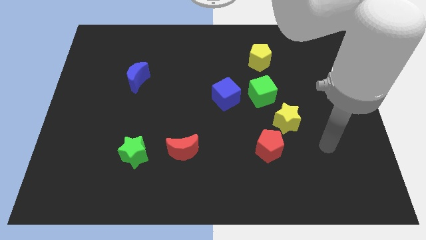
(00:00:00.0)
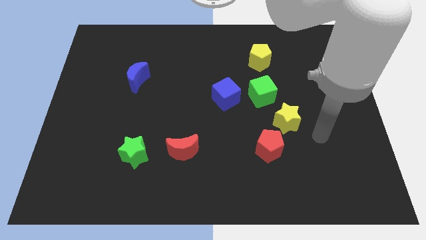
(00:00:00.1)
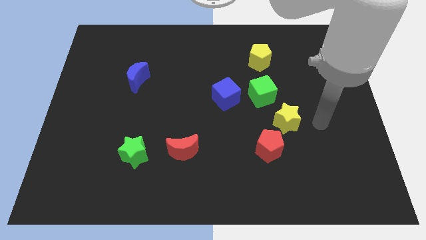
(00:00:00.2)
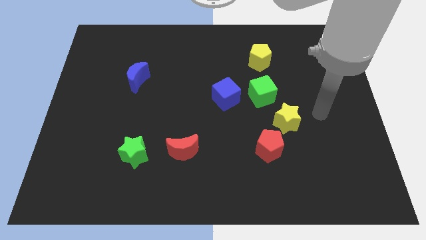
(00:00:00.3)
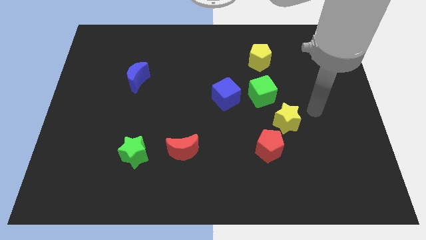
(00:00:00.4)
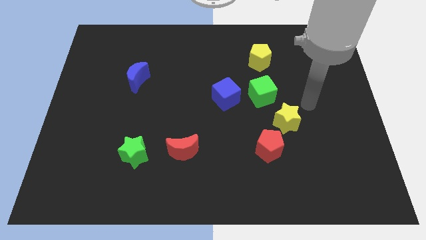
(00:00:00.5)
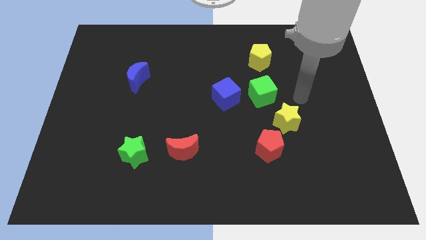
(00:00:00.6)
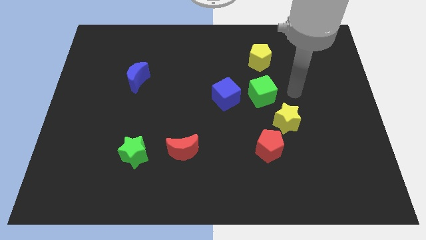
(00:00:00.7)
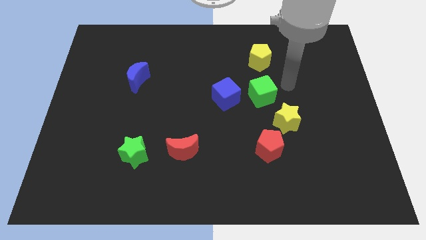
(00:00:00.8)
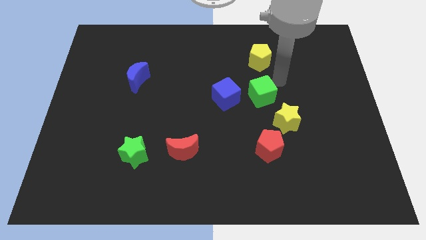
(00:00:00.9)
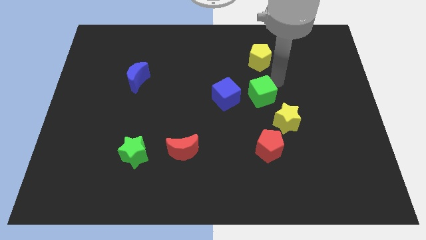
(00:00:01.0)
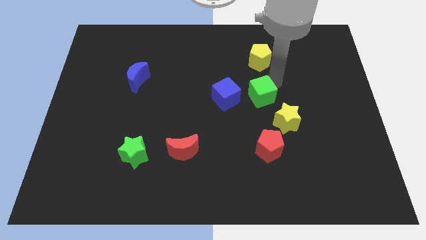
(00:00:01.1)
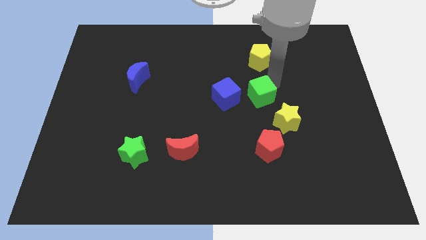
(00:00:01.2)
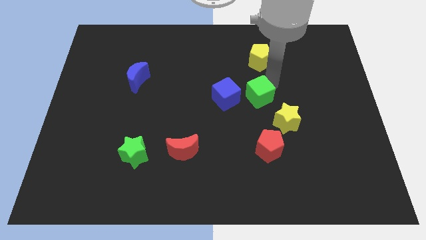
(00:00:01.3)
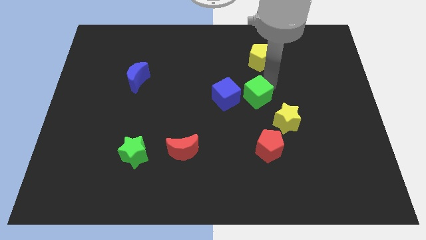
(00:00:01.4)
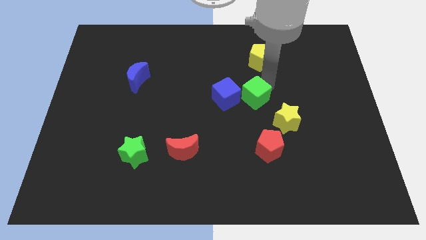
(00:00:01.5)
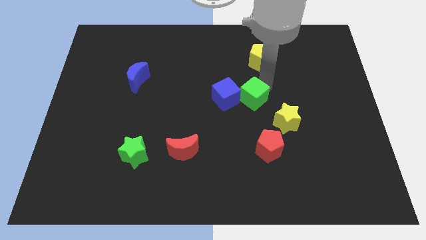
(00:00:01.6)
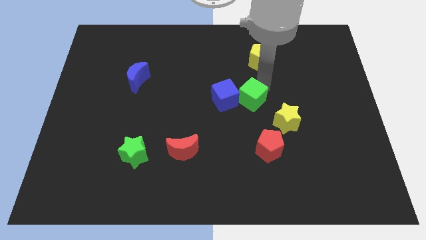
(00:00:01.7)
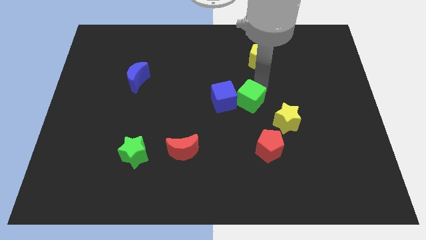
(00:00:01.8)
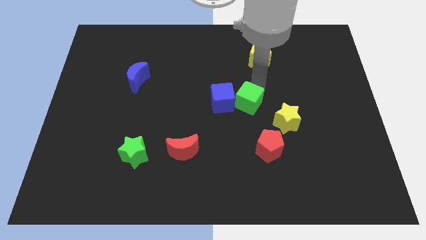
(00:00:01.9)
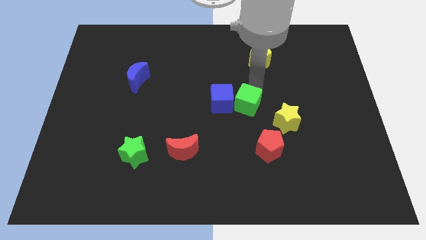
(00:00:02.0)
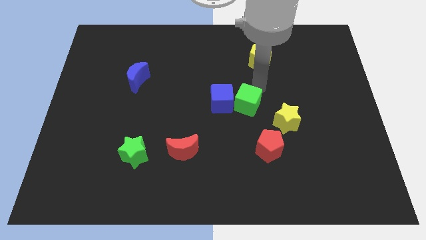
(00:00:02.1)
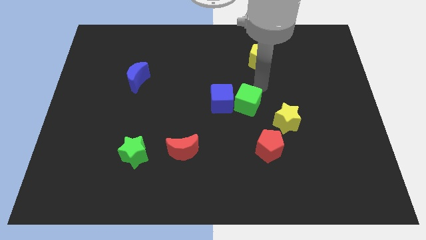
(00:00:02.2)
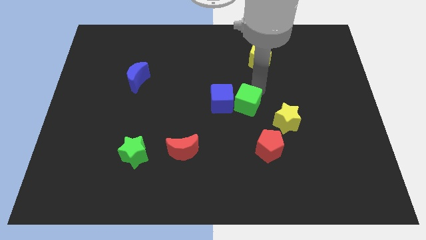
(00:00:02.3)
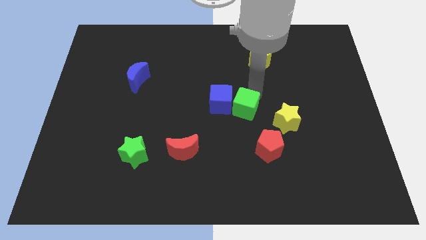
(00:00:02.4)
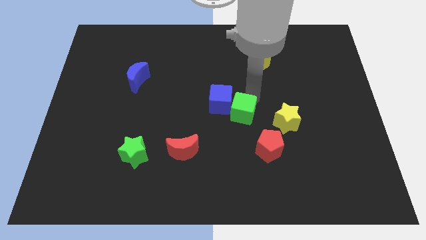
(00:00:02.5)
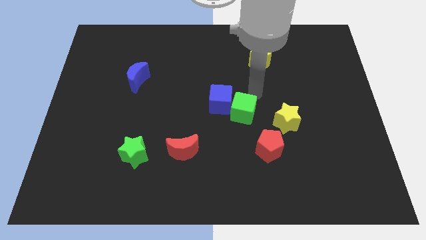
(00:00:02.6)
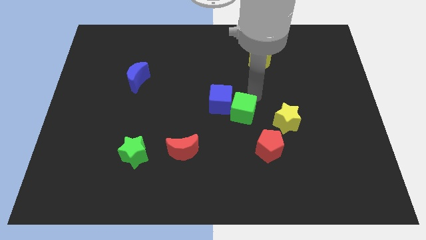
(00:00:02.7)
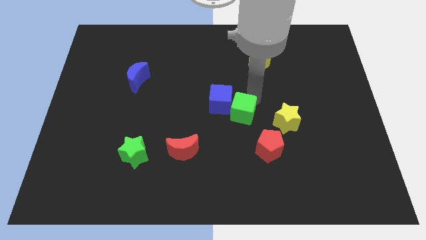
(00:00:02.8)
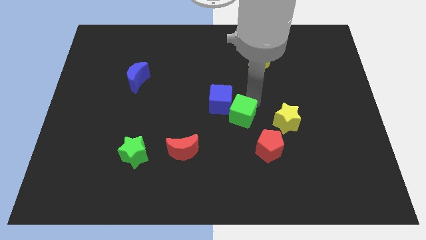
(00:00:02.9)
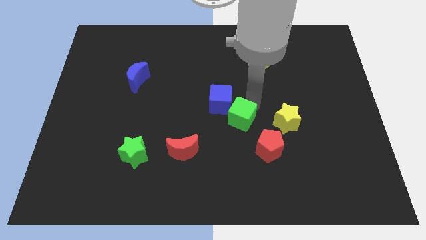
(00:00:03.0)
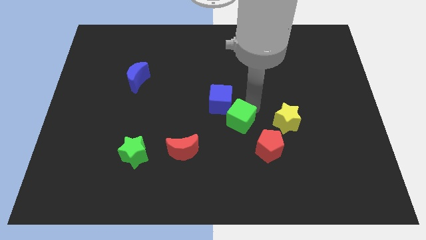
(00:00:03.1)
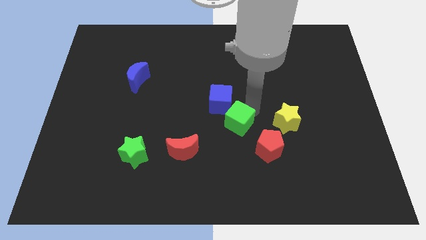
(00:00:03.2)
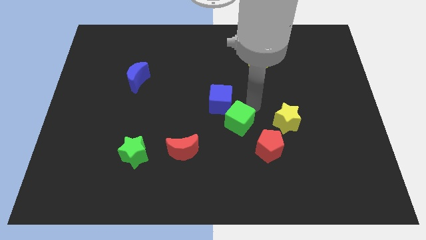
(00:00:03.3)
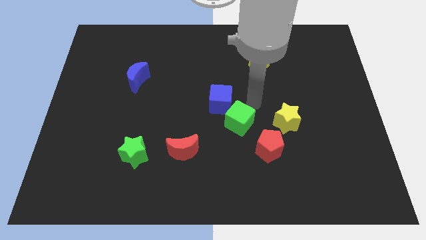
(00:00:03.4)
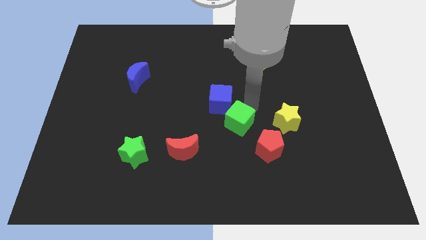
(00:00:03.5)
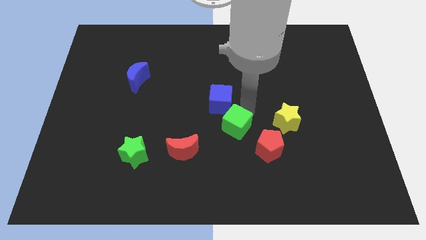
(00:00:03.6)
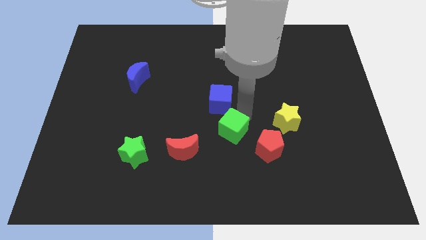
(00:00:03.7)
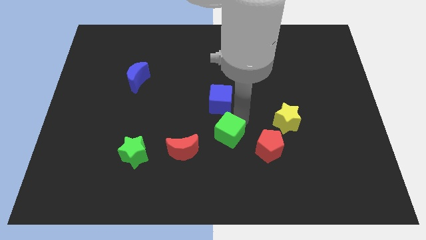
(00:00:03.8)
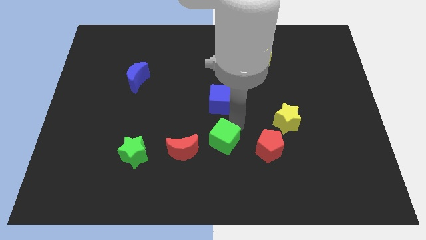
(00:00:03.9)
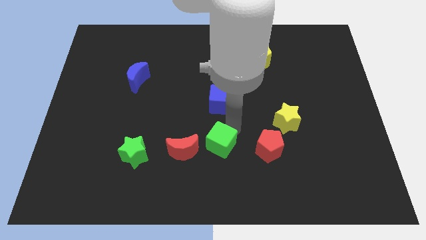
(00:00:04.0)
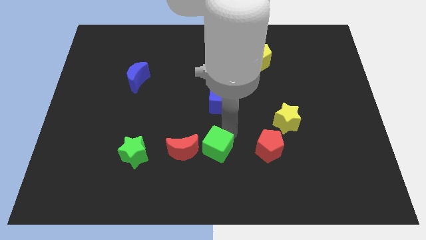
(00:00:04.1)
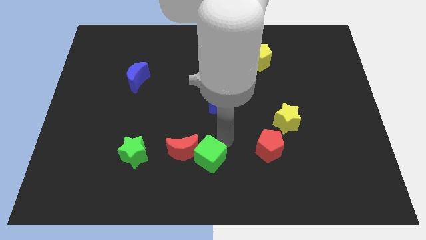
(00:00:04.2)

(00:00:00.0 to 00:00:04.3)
move the green cube down and then left

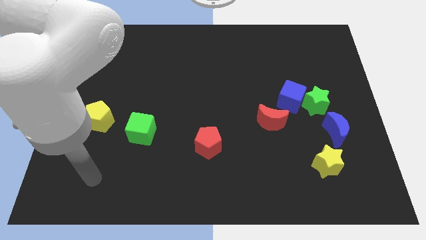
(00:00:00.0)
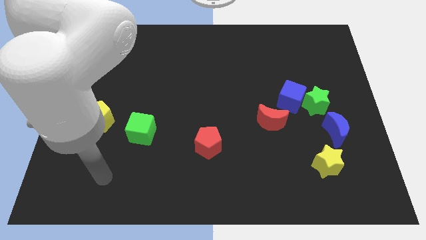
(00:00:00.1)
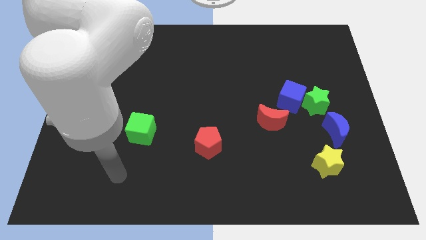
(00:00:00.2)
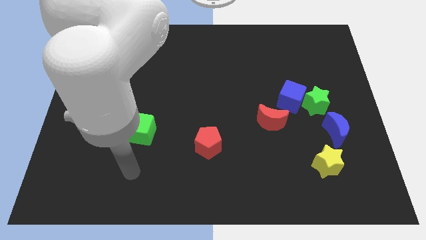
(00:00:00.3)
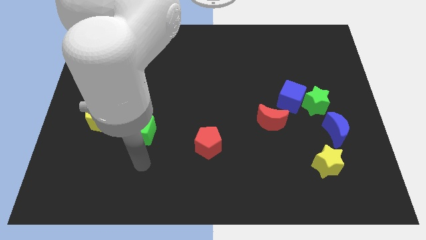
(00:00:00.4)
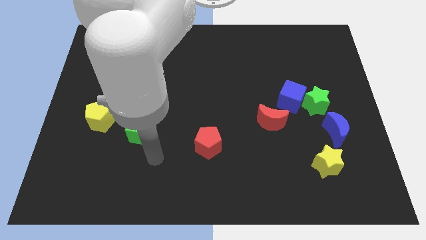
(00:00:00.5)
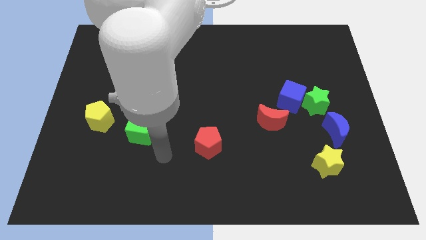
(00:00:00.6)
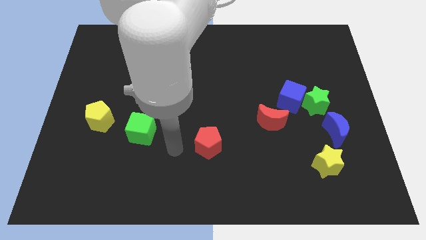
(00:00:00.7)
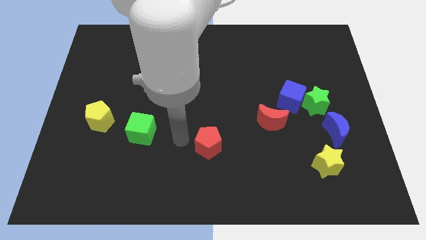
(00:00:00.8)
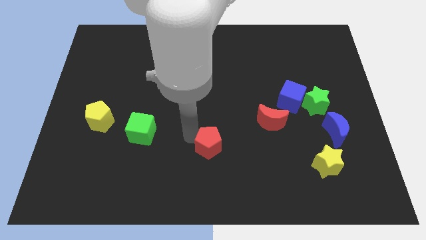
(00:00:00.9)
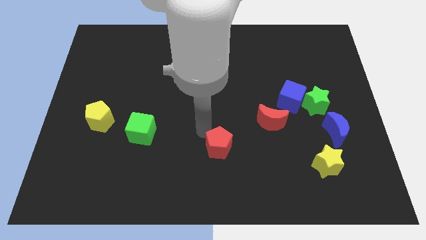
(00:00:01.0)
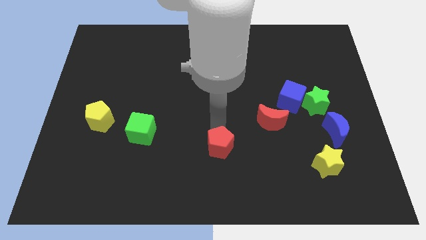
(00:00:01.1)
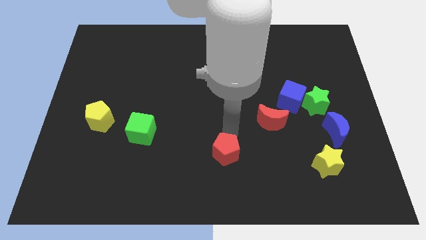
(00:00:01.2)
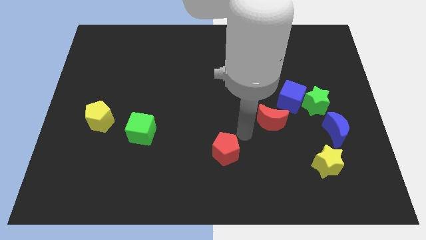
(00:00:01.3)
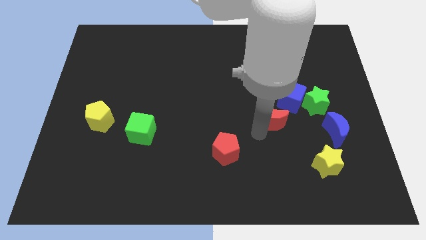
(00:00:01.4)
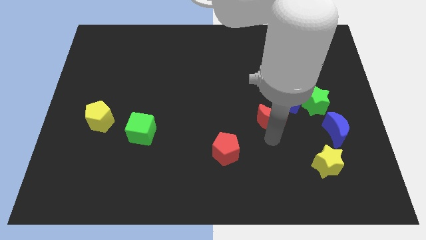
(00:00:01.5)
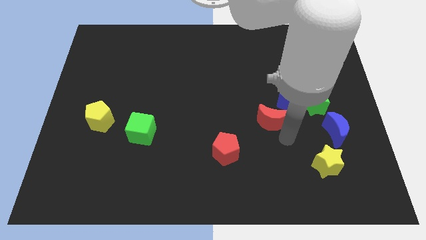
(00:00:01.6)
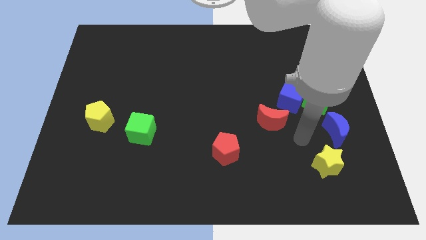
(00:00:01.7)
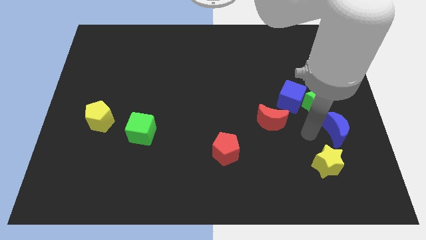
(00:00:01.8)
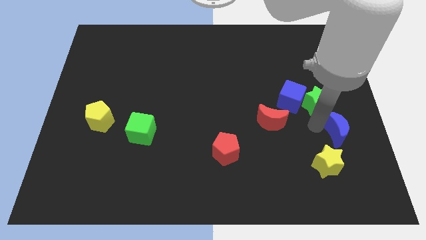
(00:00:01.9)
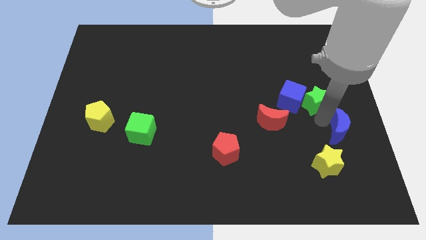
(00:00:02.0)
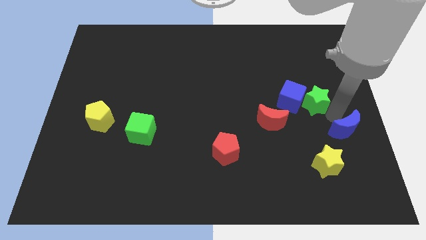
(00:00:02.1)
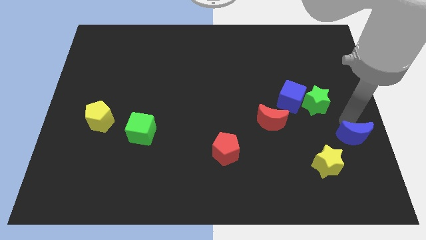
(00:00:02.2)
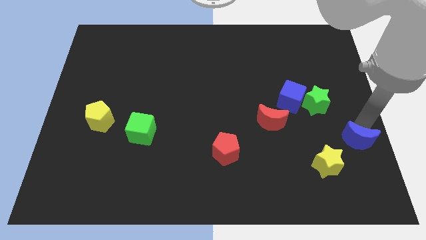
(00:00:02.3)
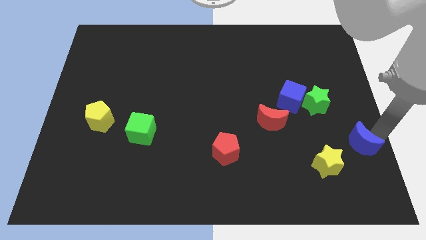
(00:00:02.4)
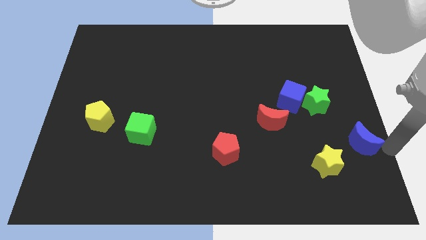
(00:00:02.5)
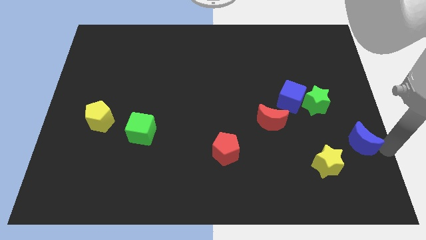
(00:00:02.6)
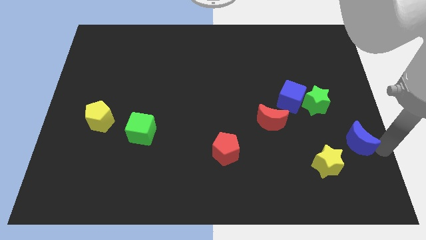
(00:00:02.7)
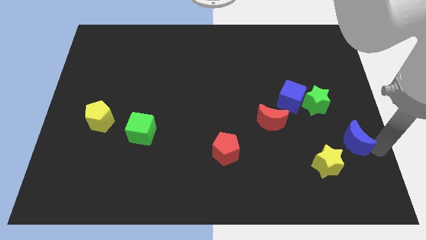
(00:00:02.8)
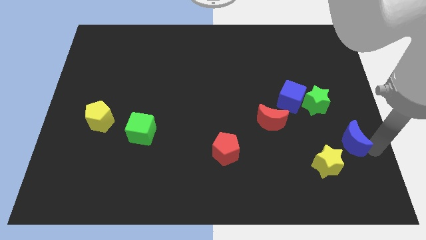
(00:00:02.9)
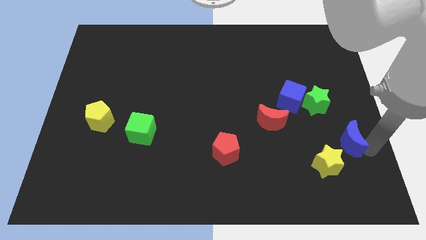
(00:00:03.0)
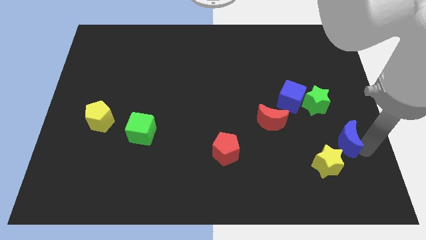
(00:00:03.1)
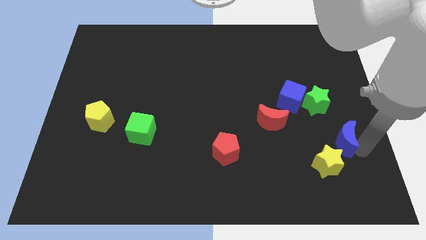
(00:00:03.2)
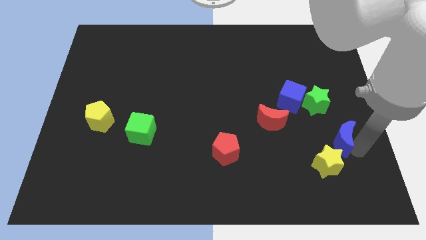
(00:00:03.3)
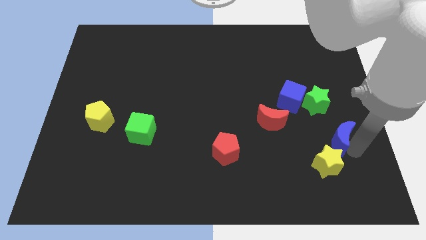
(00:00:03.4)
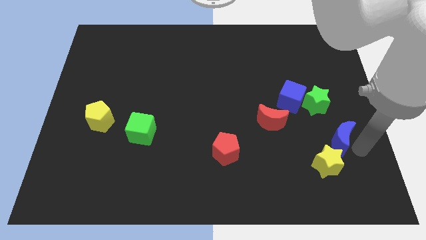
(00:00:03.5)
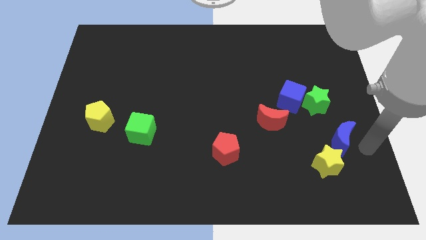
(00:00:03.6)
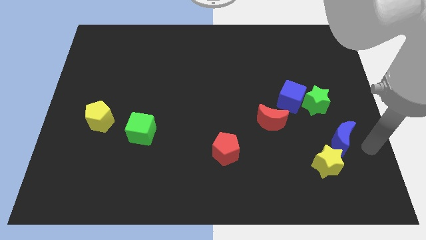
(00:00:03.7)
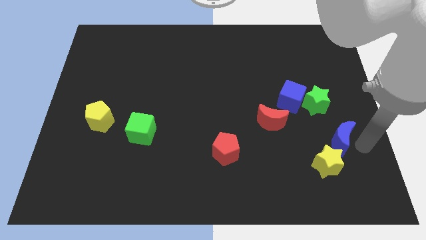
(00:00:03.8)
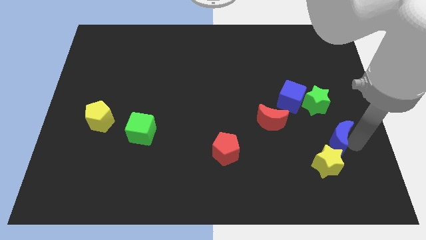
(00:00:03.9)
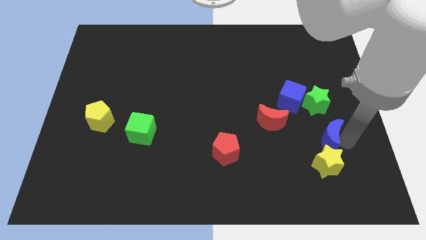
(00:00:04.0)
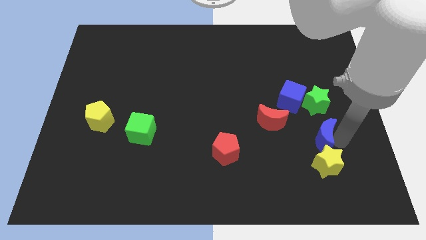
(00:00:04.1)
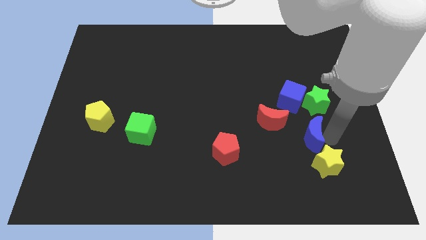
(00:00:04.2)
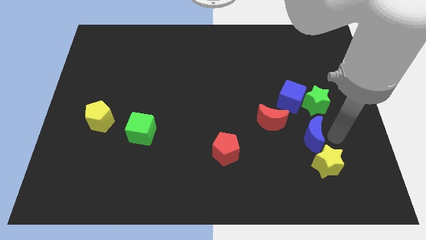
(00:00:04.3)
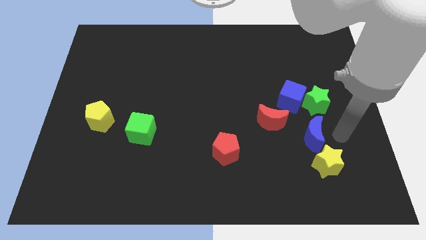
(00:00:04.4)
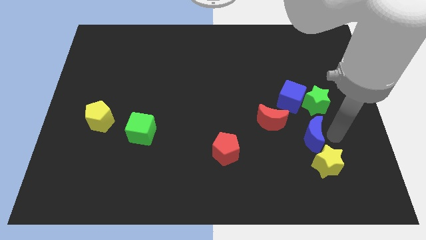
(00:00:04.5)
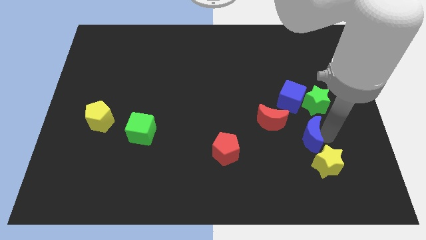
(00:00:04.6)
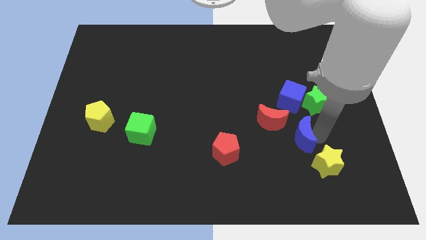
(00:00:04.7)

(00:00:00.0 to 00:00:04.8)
move the blue moon a little to the left
